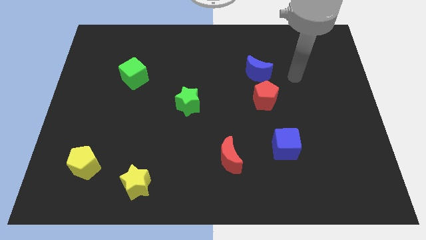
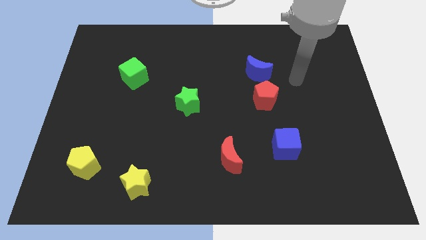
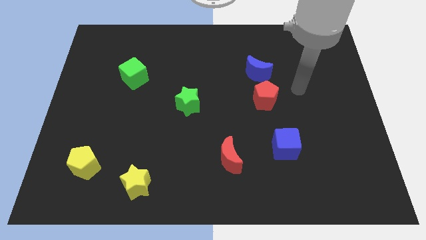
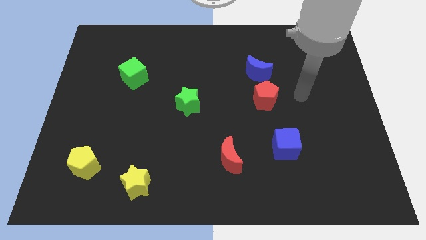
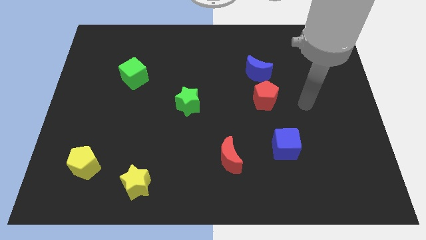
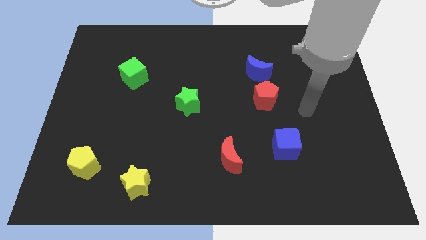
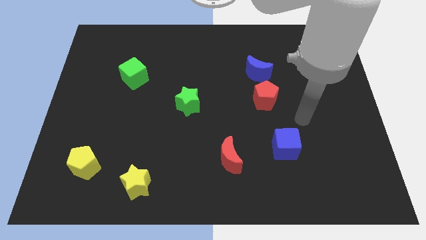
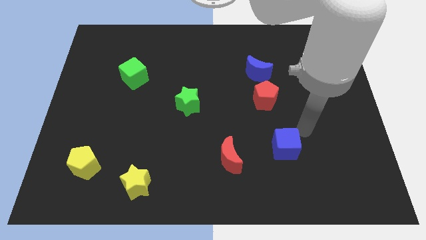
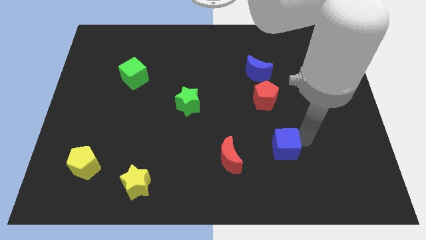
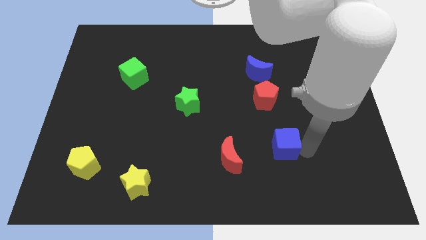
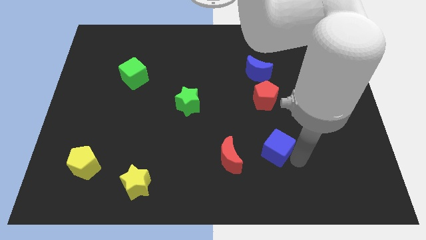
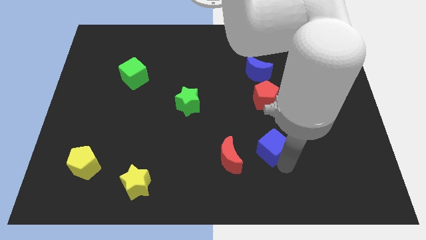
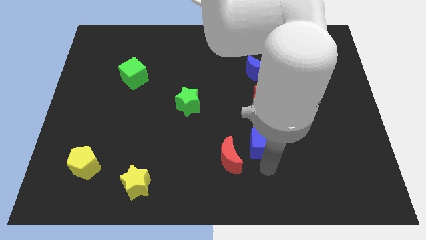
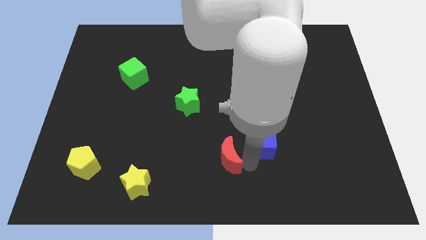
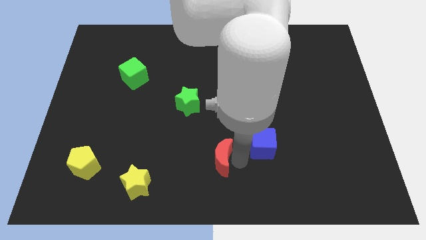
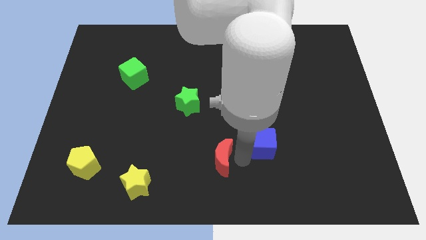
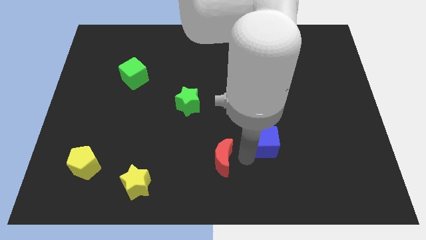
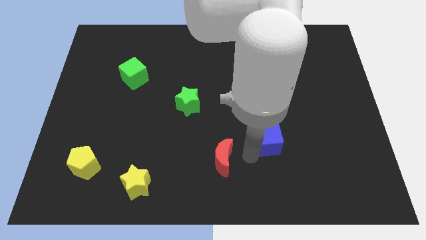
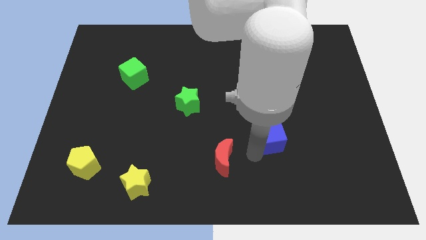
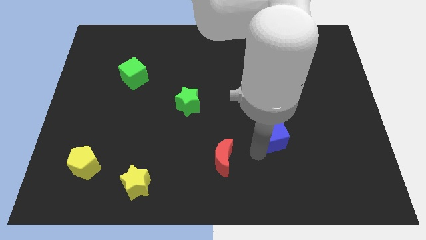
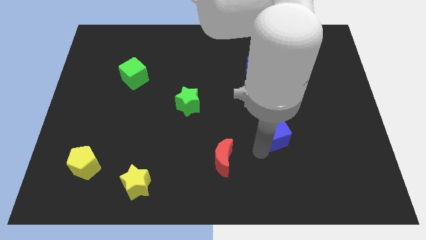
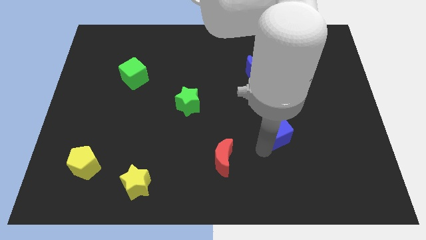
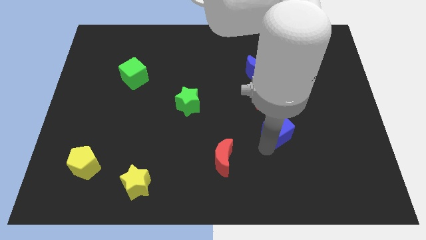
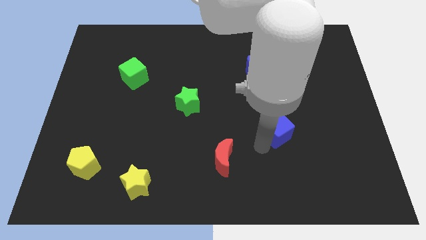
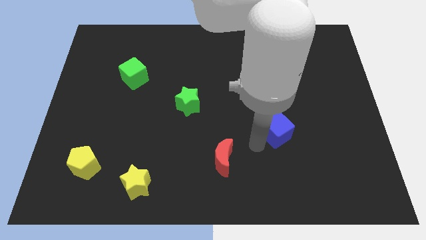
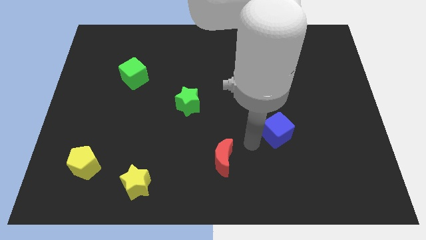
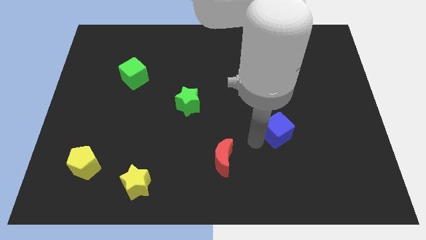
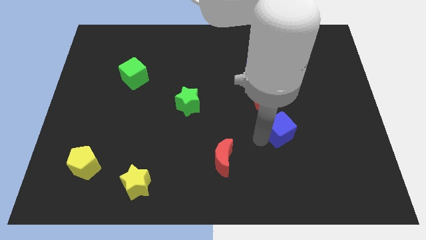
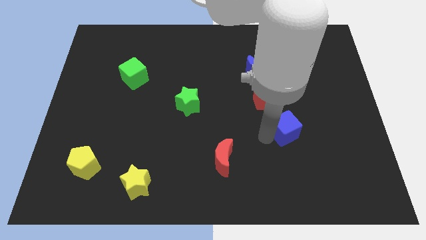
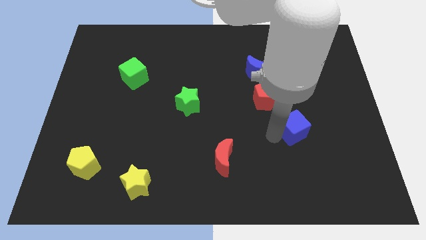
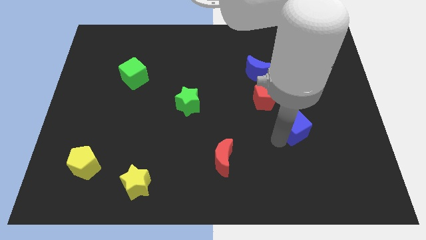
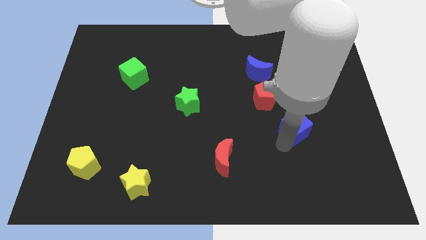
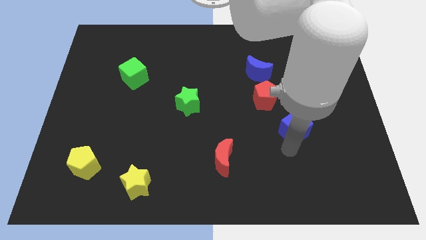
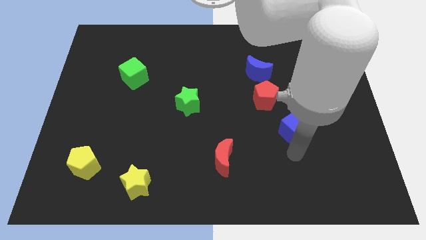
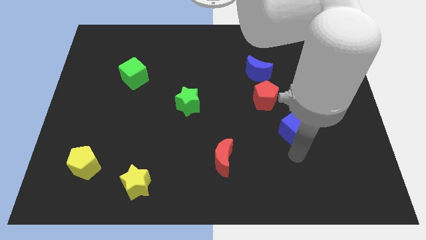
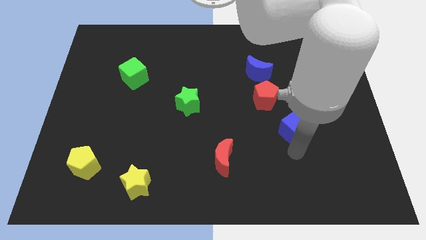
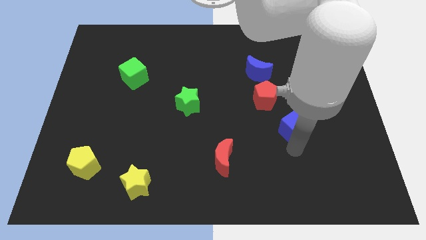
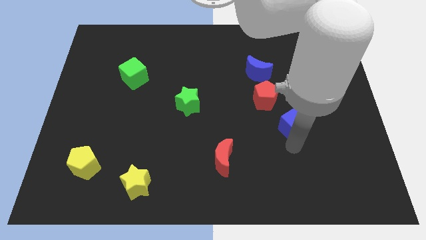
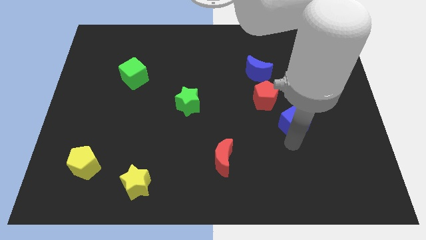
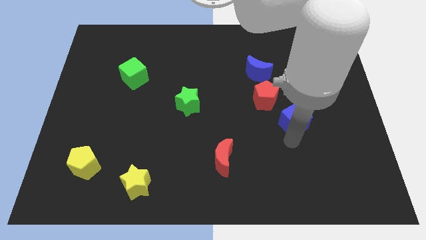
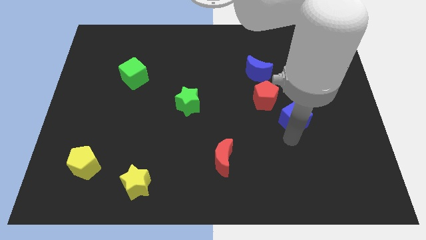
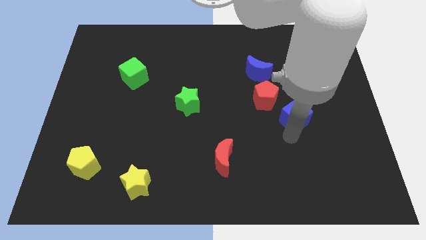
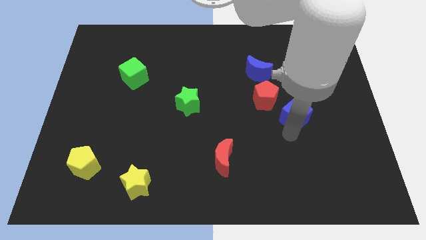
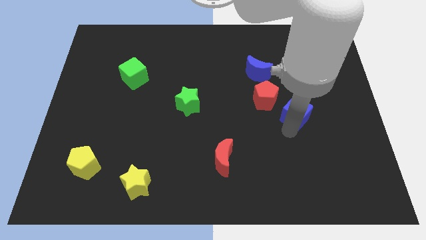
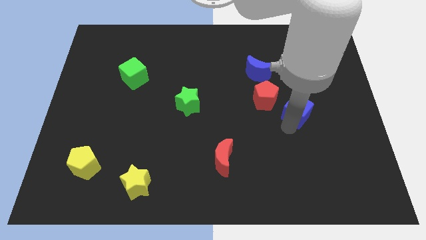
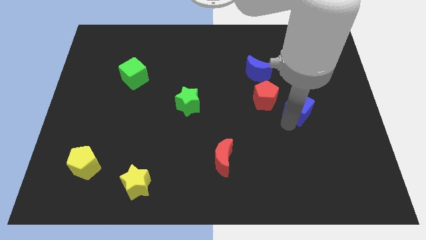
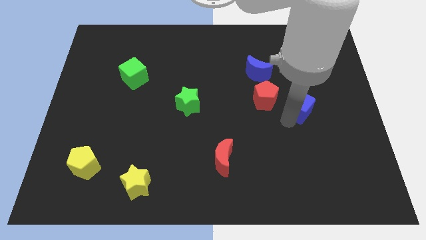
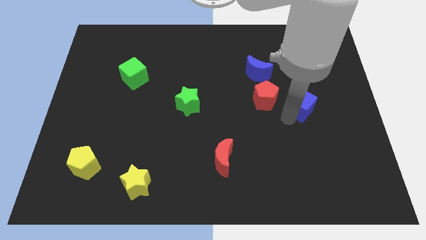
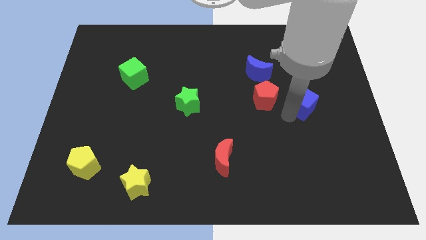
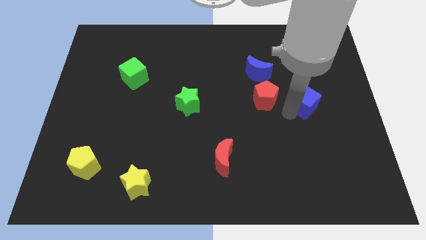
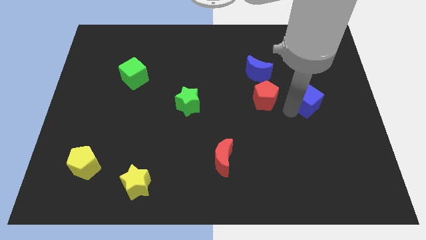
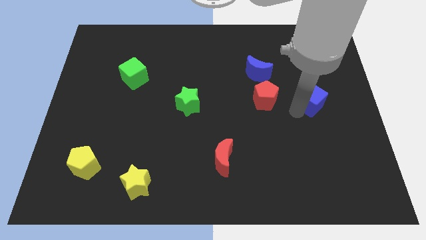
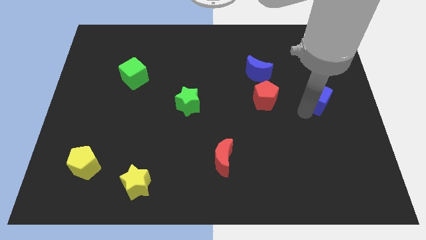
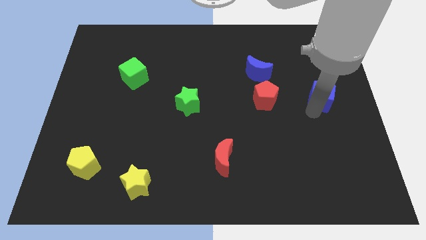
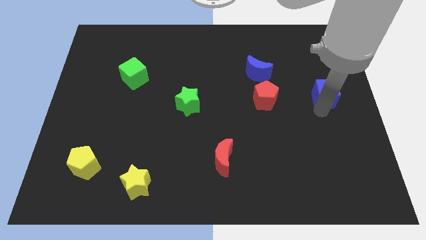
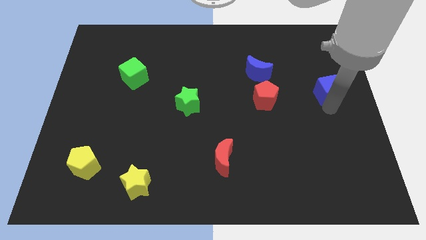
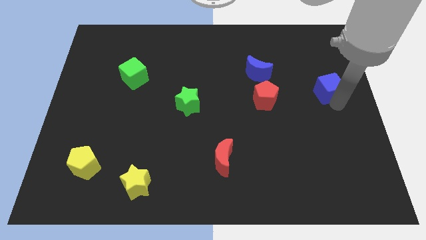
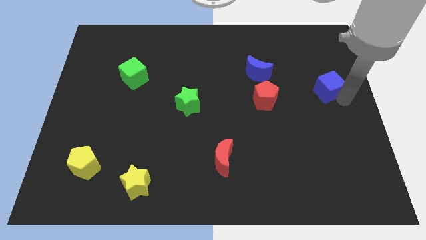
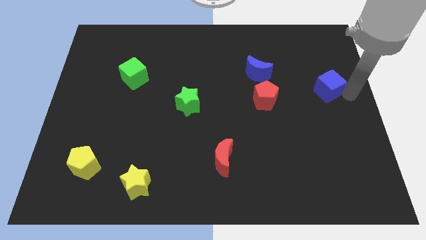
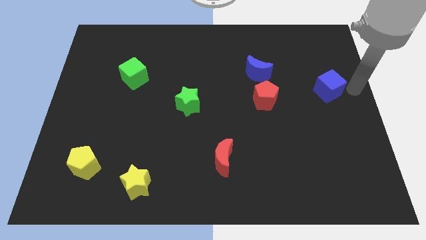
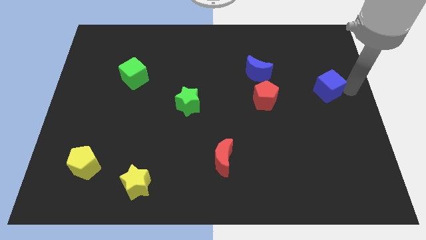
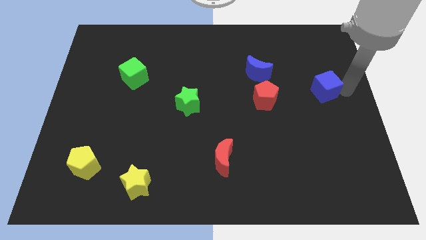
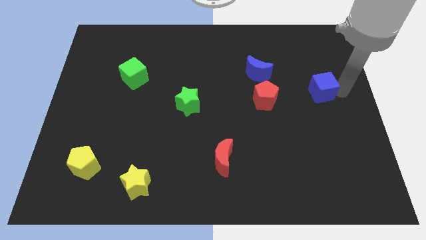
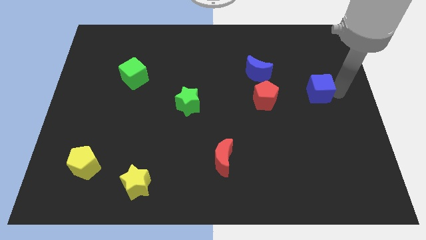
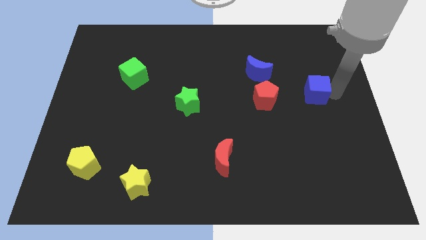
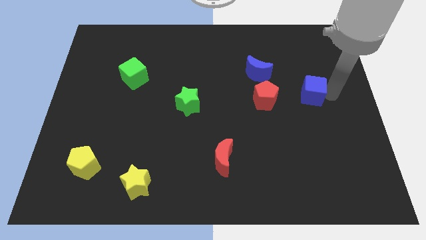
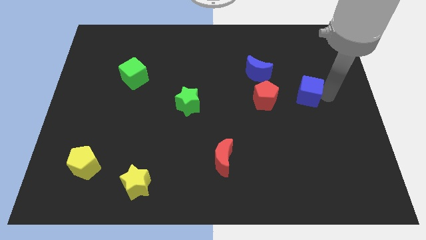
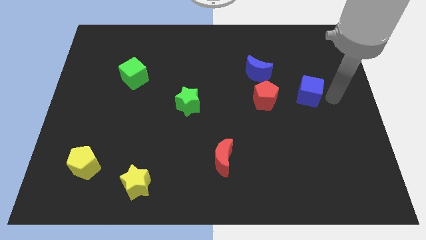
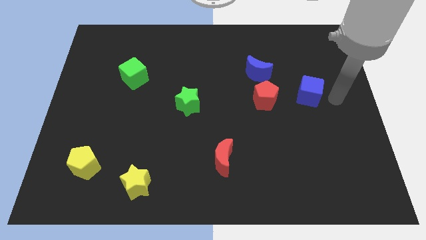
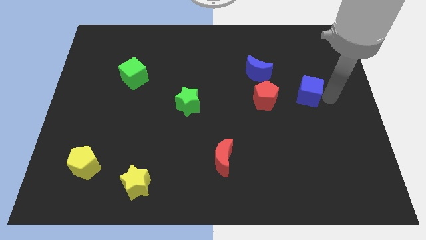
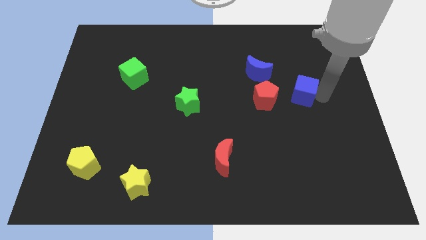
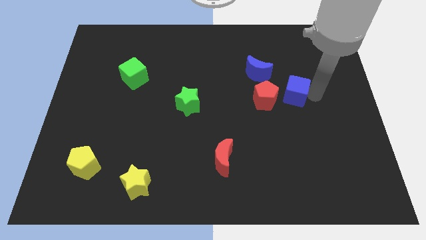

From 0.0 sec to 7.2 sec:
move the blue cube to the bottom right of the blue moon
